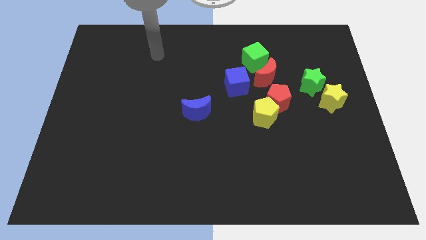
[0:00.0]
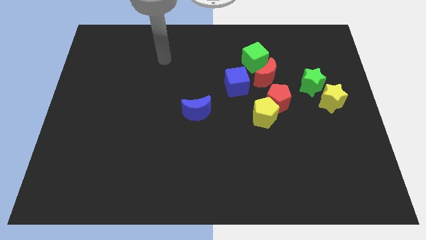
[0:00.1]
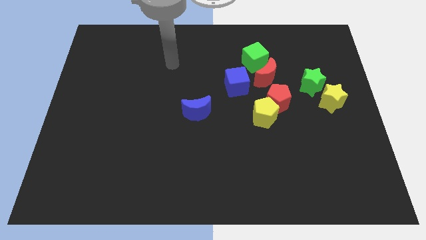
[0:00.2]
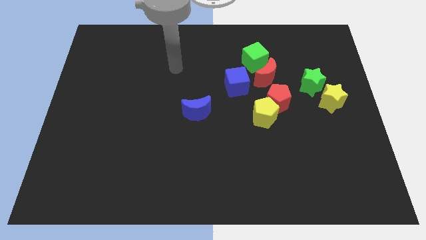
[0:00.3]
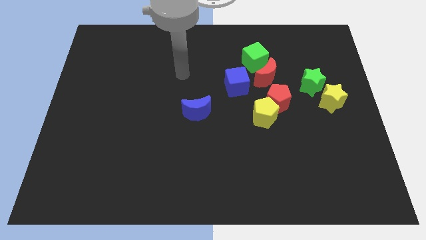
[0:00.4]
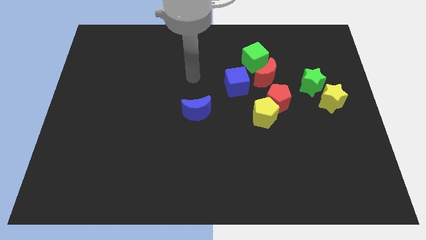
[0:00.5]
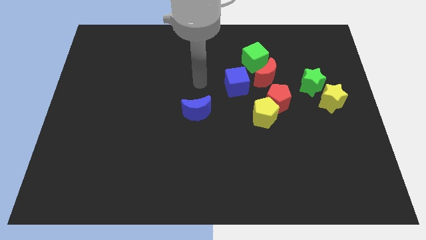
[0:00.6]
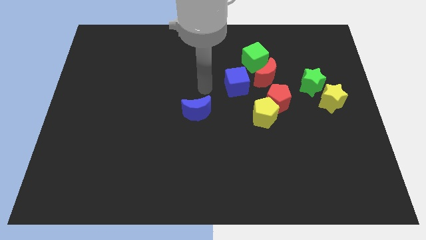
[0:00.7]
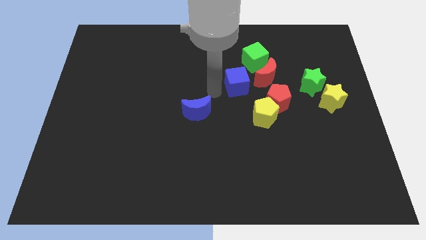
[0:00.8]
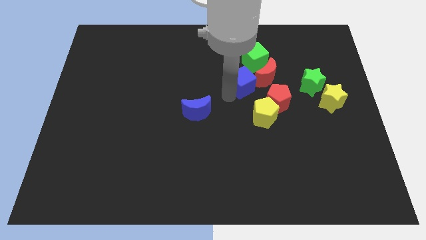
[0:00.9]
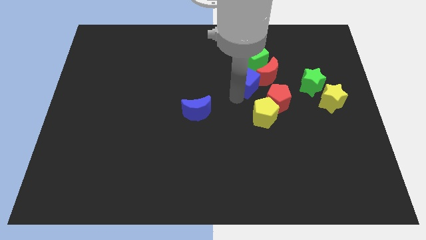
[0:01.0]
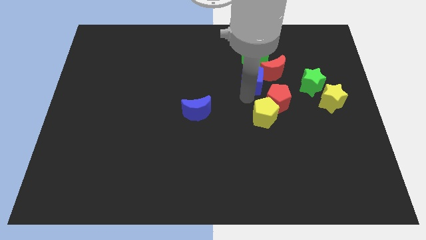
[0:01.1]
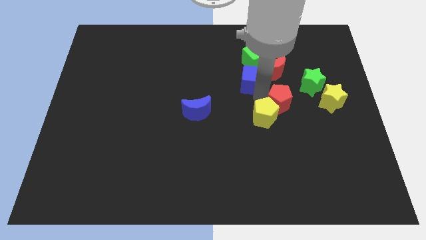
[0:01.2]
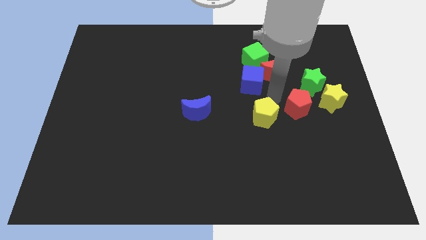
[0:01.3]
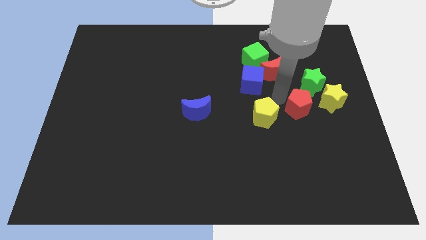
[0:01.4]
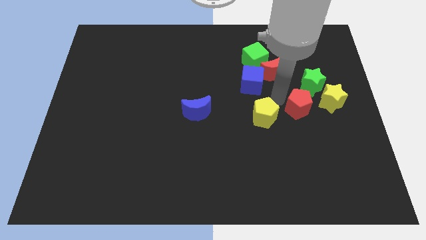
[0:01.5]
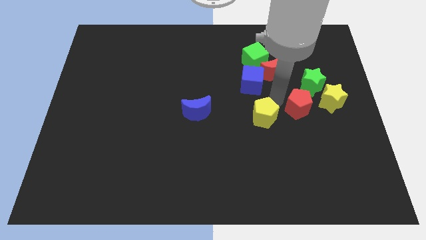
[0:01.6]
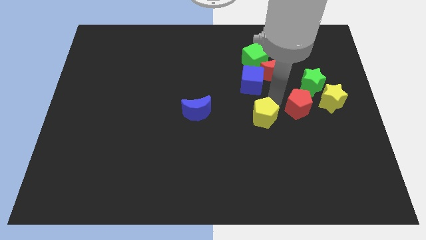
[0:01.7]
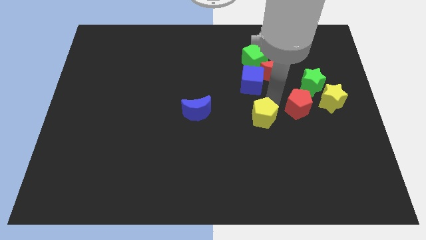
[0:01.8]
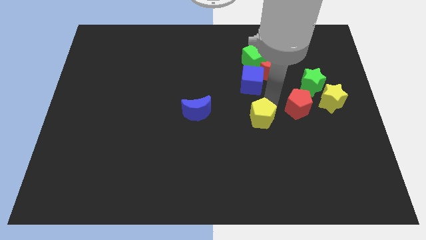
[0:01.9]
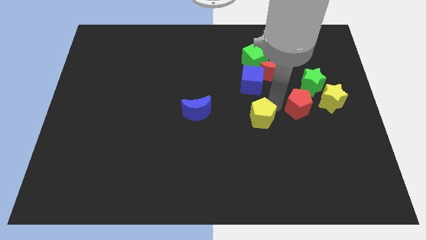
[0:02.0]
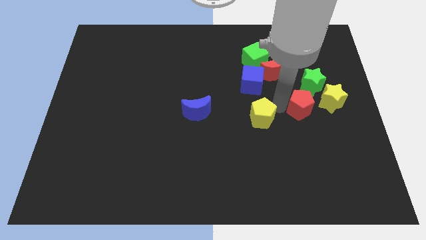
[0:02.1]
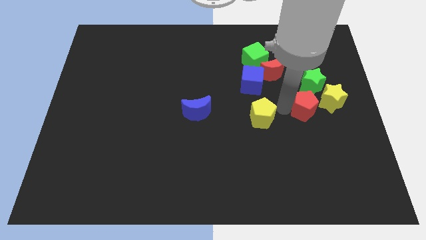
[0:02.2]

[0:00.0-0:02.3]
separate the yellow pentagon from the red pentagon

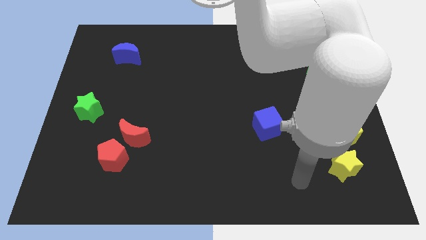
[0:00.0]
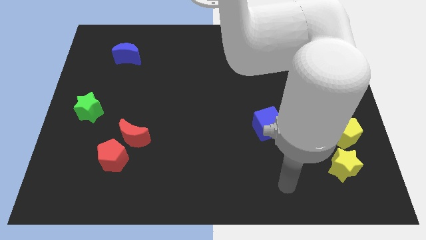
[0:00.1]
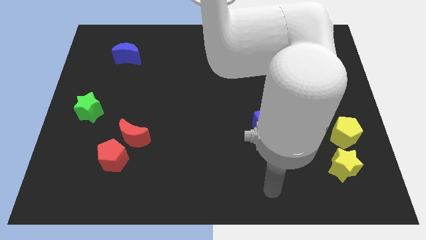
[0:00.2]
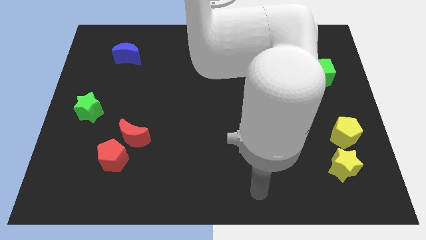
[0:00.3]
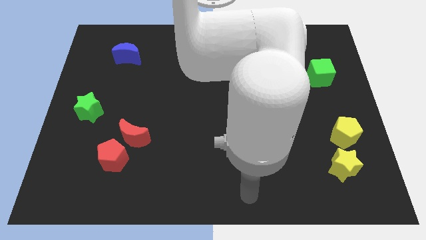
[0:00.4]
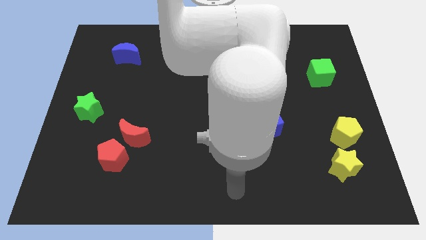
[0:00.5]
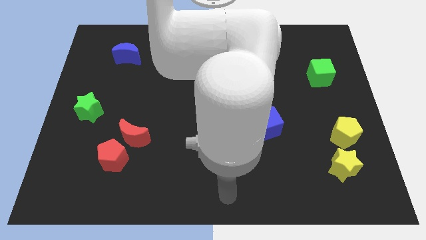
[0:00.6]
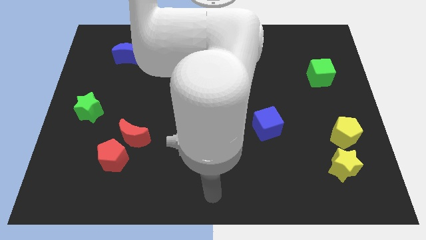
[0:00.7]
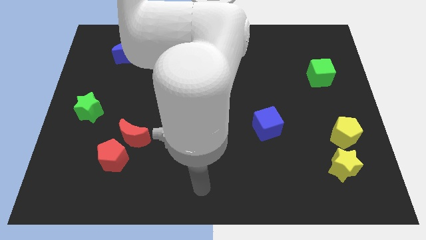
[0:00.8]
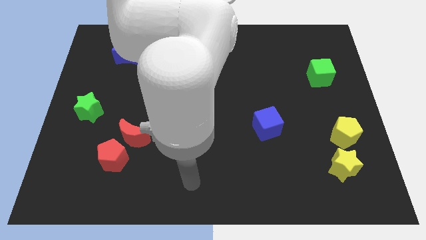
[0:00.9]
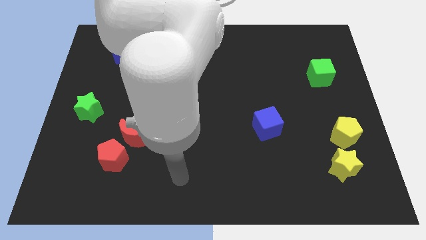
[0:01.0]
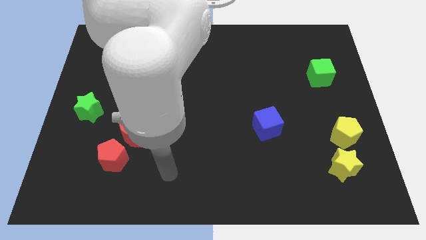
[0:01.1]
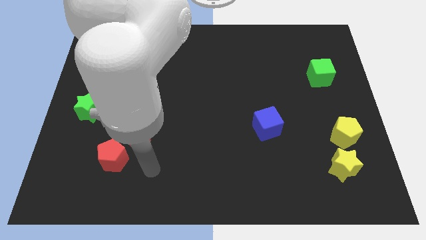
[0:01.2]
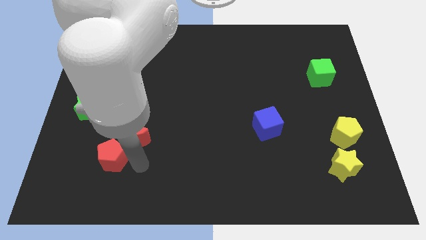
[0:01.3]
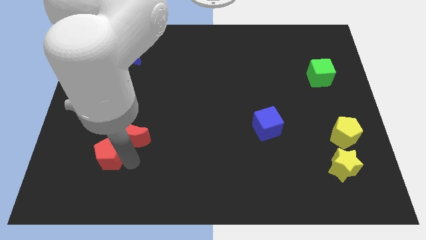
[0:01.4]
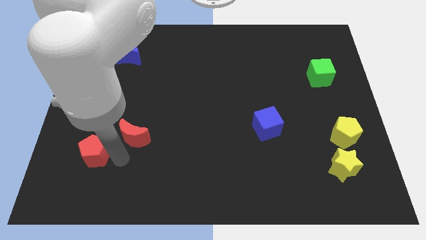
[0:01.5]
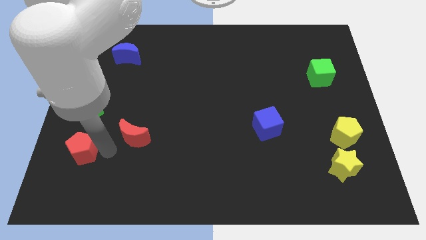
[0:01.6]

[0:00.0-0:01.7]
move the red moon away from the red pentagon

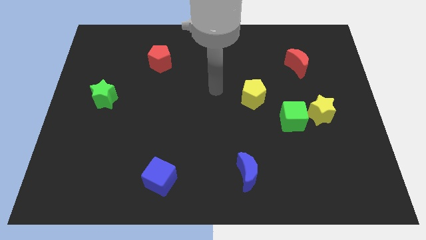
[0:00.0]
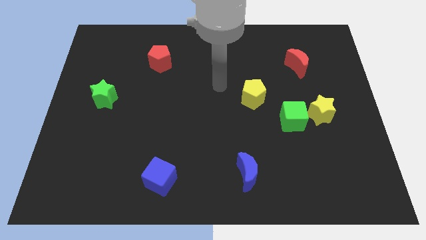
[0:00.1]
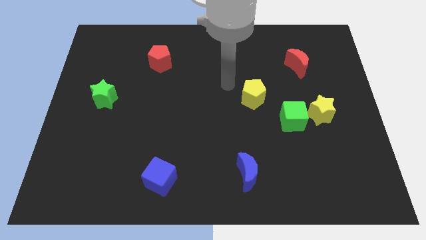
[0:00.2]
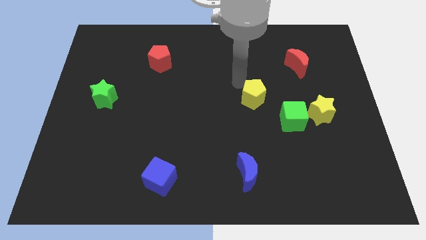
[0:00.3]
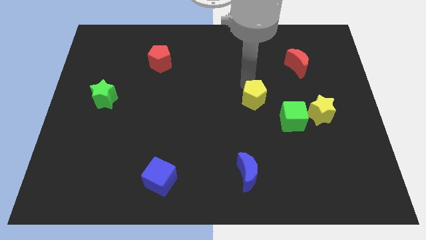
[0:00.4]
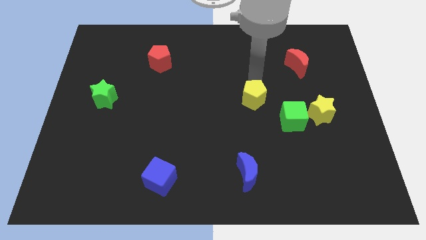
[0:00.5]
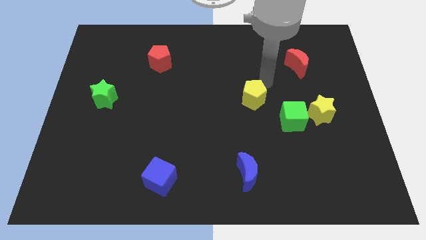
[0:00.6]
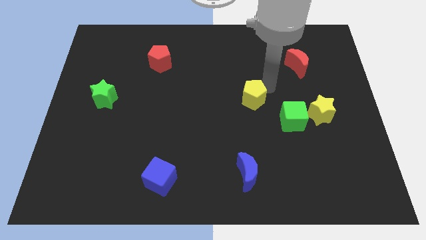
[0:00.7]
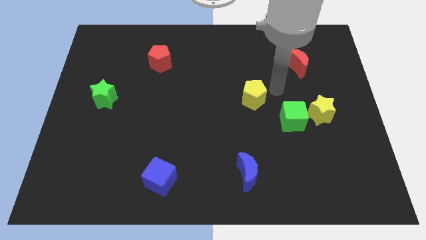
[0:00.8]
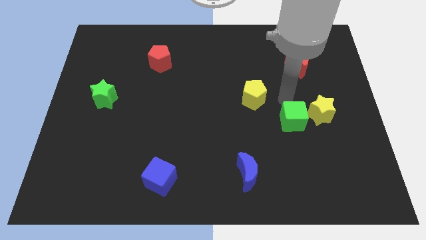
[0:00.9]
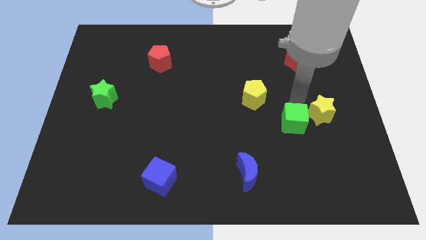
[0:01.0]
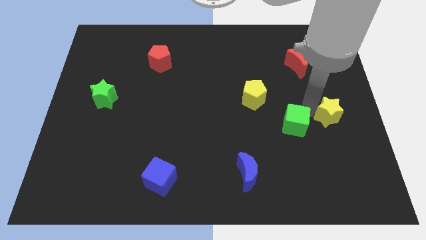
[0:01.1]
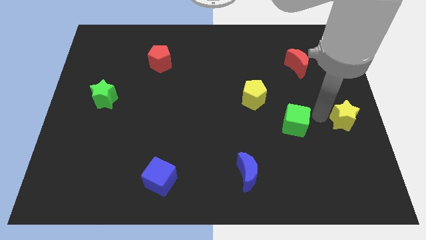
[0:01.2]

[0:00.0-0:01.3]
move the green cube away from the yellow star

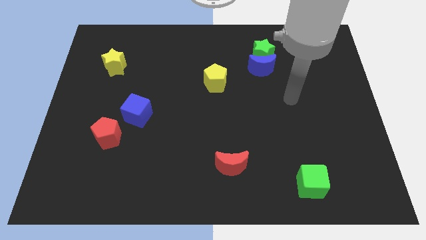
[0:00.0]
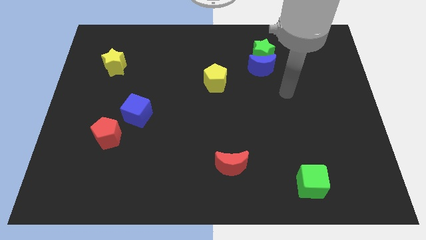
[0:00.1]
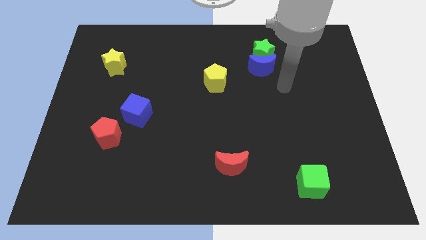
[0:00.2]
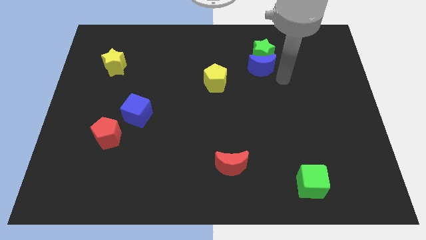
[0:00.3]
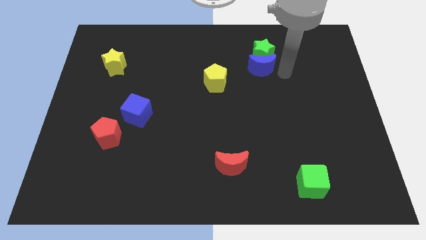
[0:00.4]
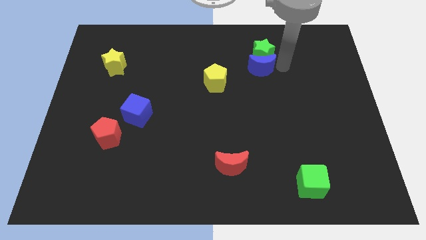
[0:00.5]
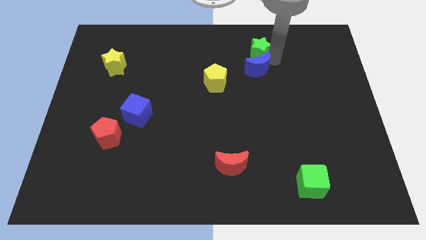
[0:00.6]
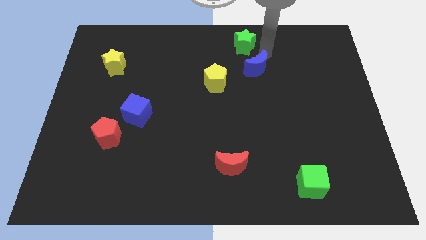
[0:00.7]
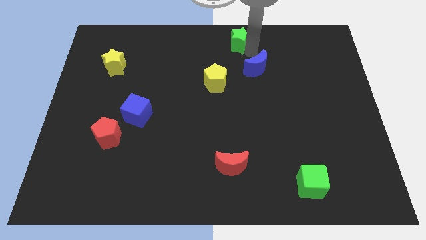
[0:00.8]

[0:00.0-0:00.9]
pull the blue moon apart from the green star

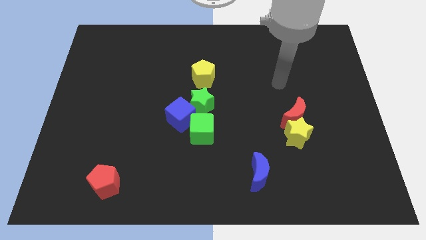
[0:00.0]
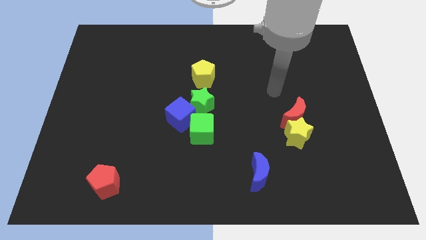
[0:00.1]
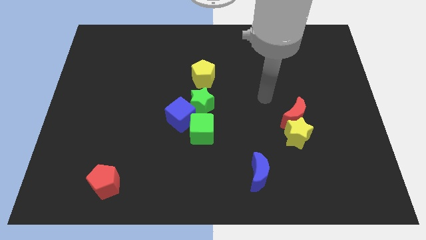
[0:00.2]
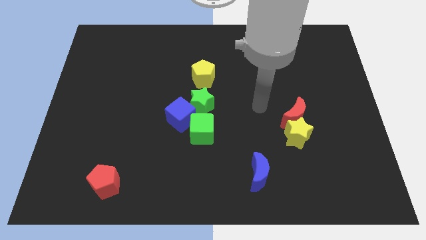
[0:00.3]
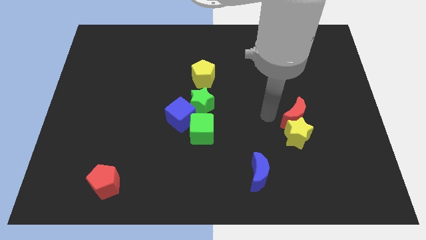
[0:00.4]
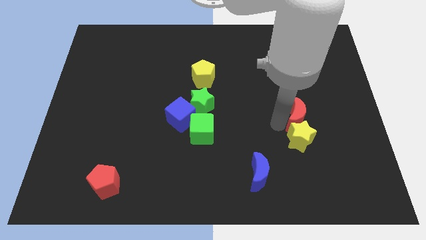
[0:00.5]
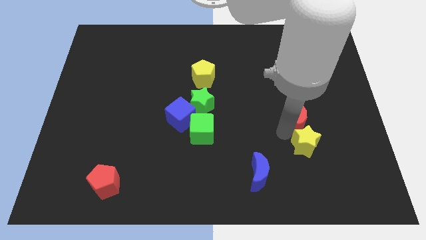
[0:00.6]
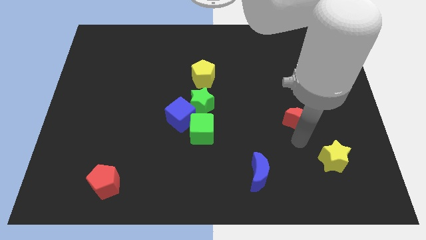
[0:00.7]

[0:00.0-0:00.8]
move the red moon away from the yellow star

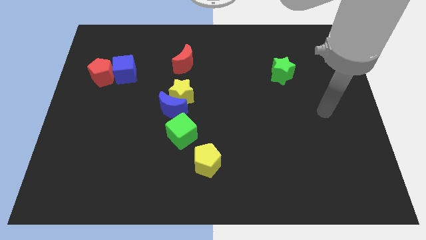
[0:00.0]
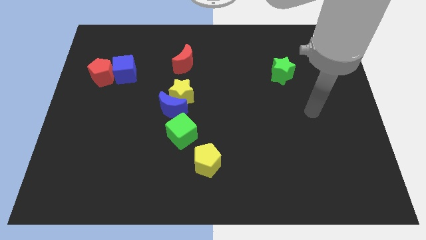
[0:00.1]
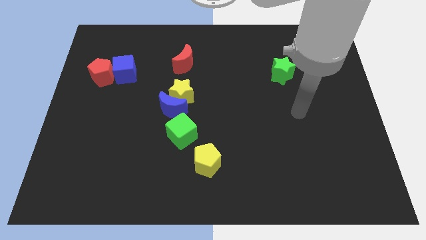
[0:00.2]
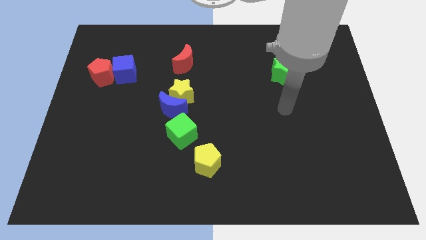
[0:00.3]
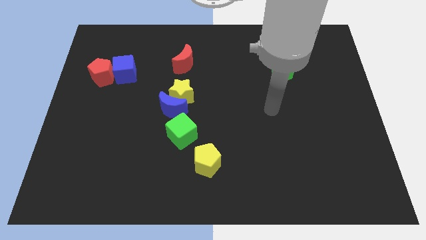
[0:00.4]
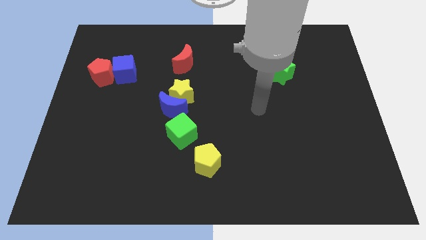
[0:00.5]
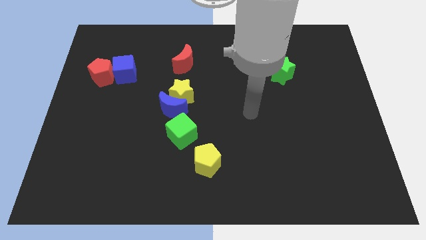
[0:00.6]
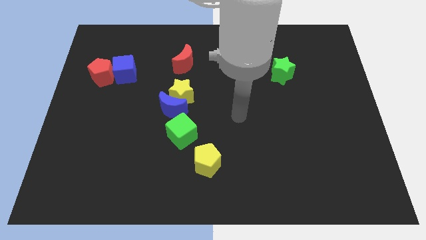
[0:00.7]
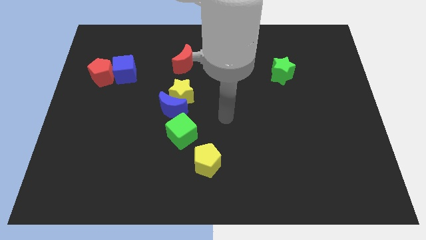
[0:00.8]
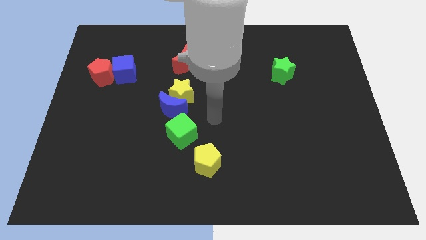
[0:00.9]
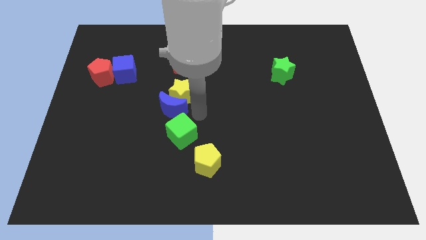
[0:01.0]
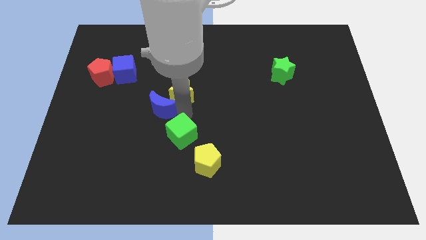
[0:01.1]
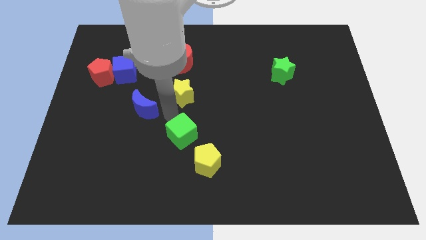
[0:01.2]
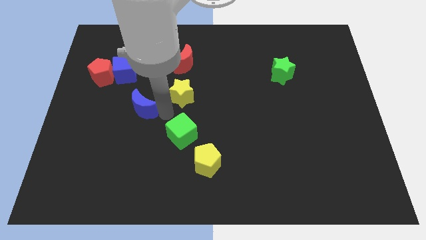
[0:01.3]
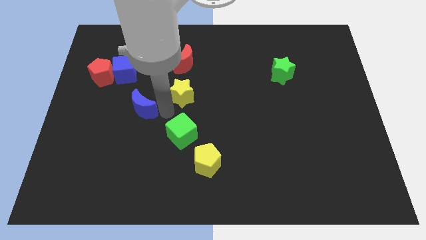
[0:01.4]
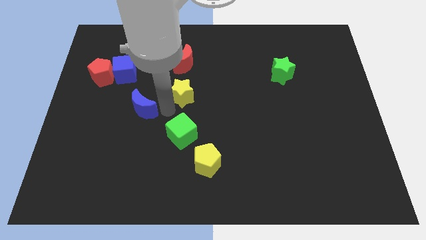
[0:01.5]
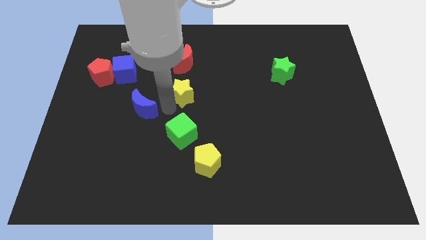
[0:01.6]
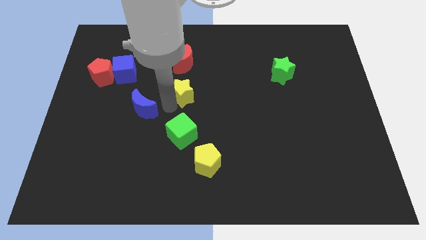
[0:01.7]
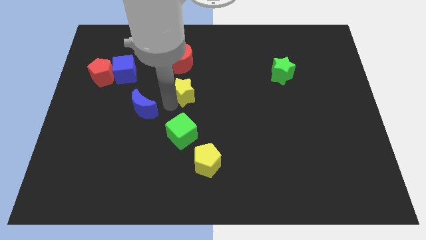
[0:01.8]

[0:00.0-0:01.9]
pull the yellow star apart from the blue moon

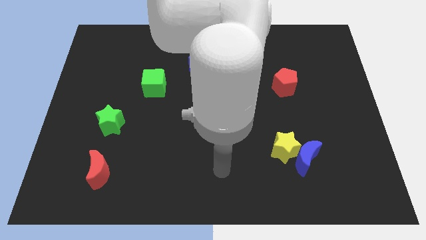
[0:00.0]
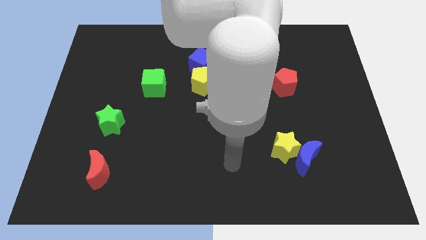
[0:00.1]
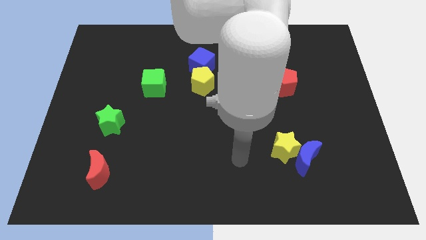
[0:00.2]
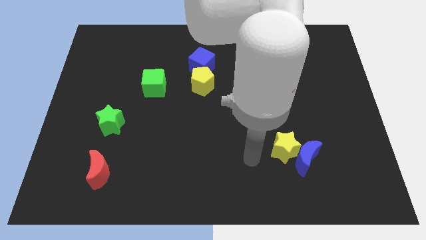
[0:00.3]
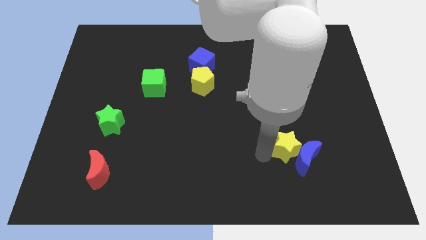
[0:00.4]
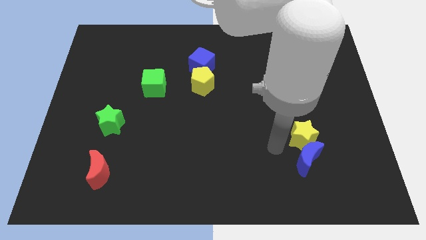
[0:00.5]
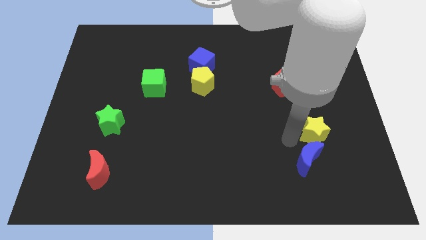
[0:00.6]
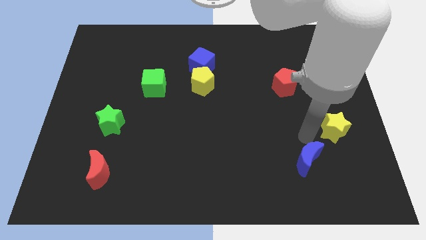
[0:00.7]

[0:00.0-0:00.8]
pull the blue moon apart from the yellow star
